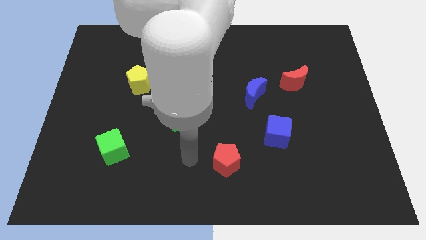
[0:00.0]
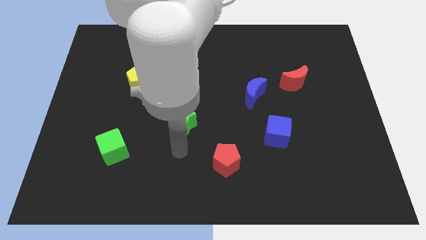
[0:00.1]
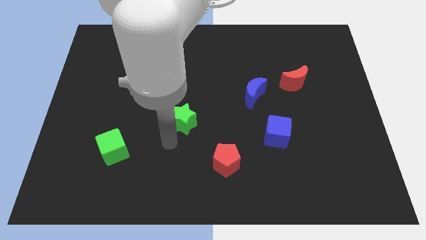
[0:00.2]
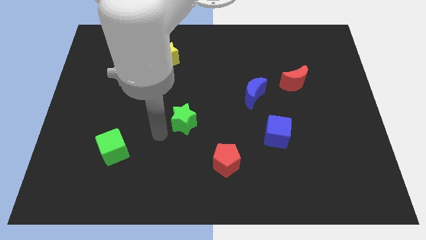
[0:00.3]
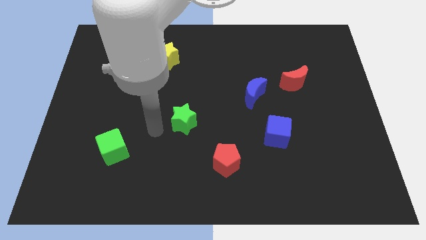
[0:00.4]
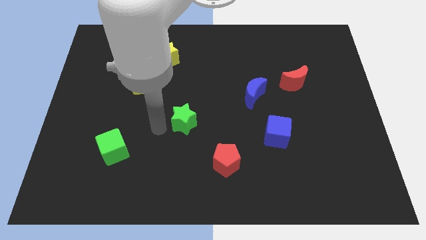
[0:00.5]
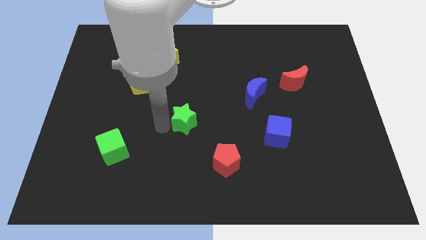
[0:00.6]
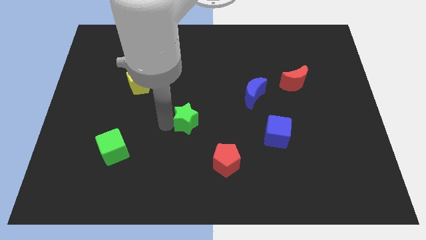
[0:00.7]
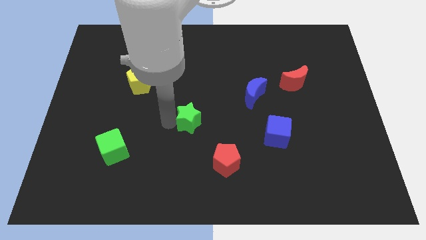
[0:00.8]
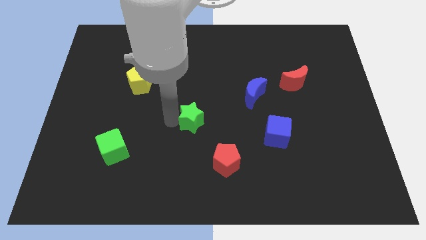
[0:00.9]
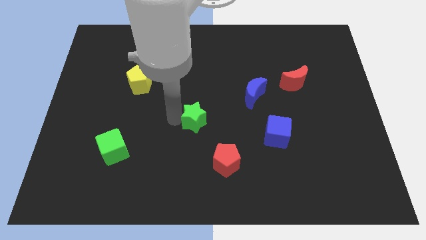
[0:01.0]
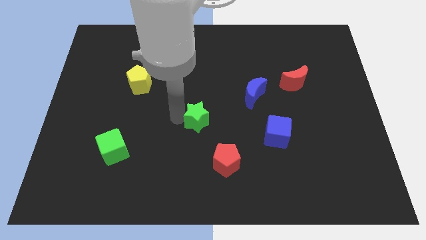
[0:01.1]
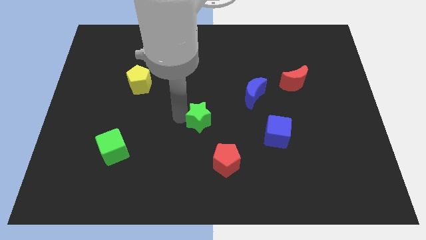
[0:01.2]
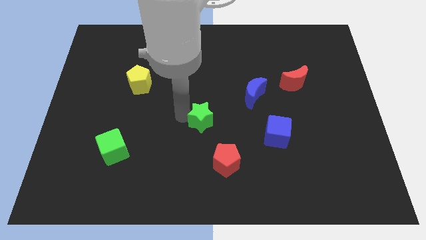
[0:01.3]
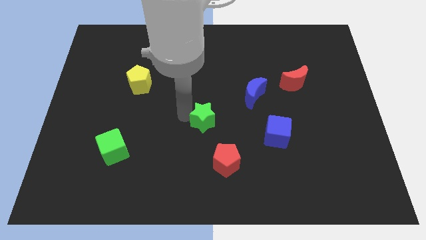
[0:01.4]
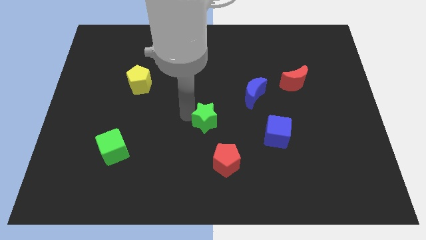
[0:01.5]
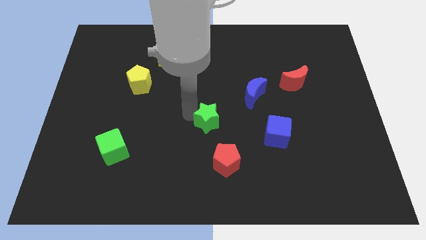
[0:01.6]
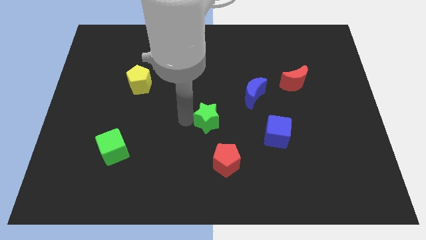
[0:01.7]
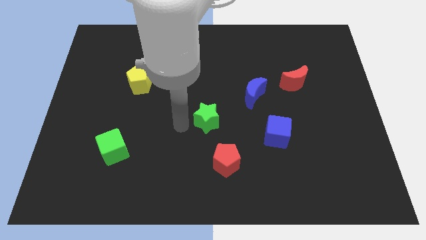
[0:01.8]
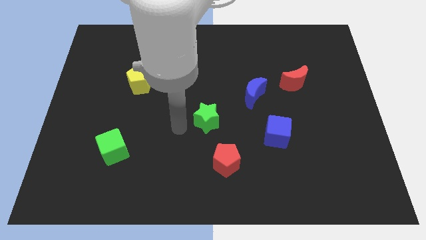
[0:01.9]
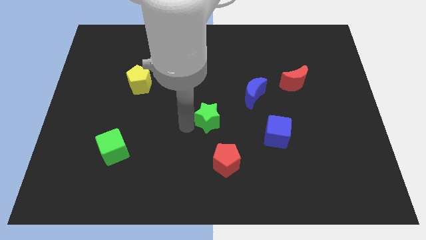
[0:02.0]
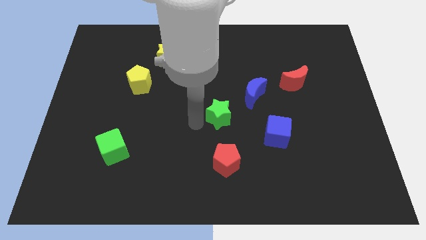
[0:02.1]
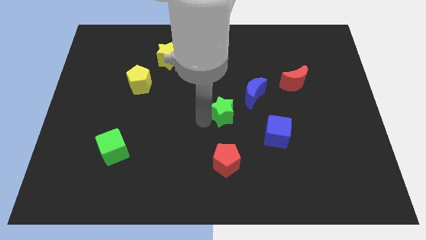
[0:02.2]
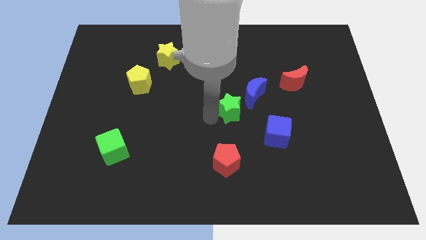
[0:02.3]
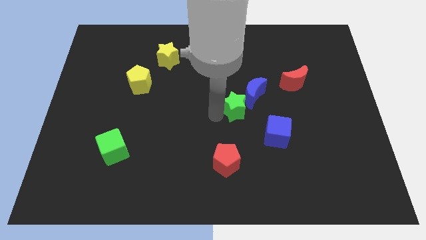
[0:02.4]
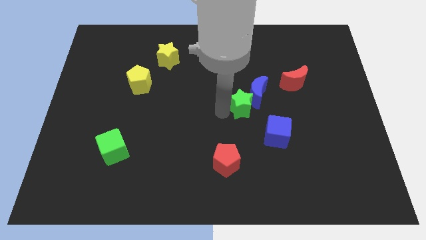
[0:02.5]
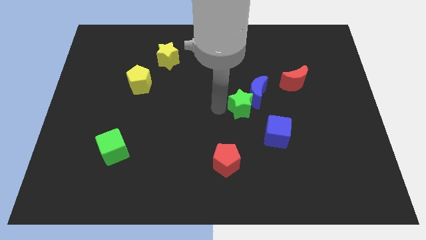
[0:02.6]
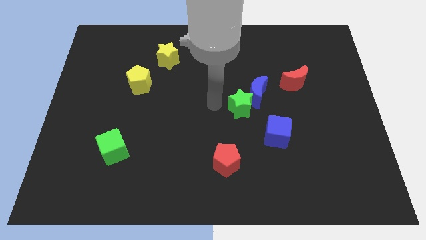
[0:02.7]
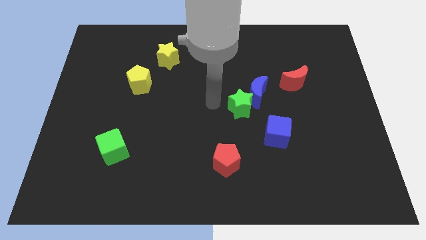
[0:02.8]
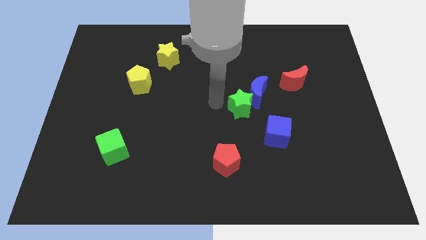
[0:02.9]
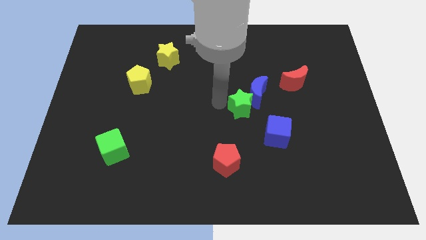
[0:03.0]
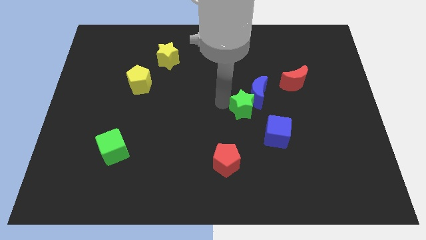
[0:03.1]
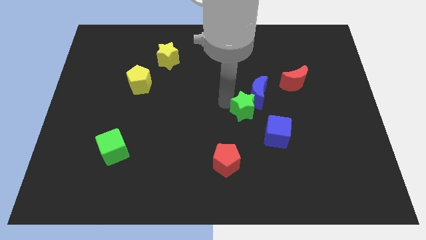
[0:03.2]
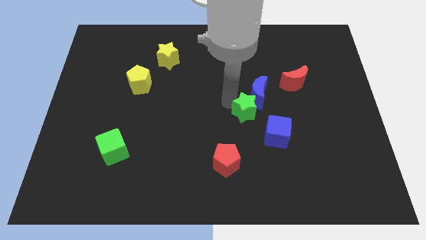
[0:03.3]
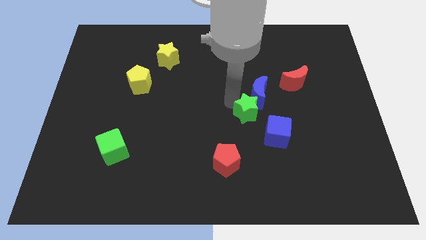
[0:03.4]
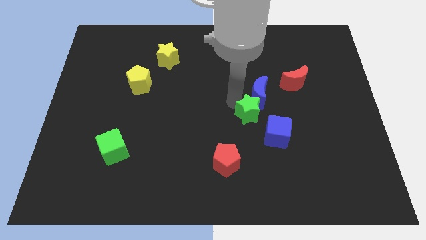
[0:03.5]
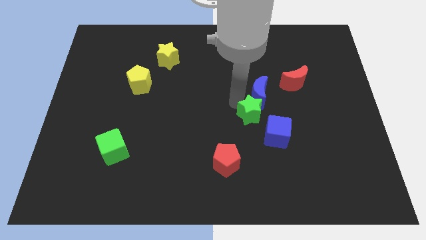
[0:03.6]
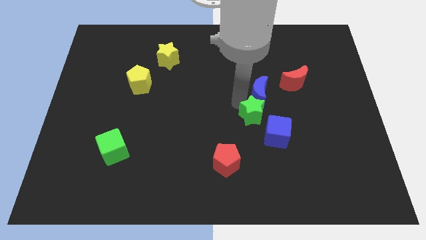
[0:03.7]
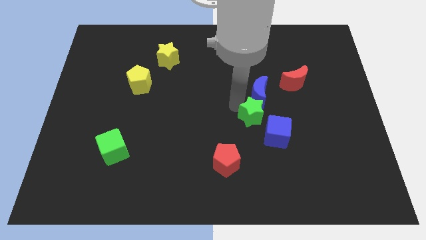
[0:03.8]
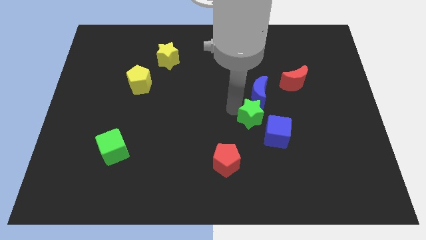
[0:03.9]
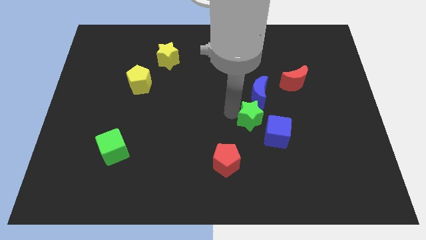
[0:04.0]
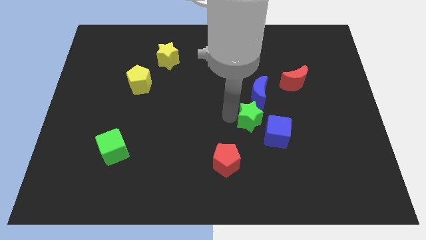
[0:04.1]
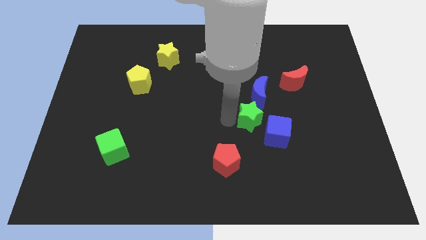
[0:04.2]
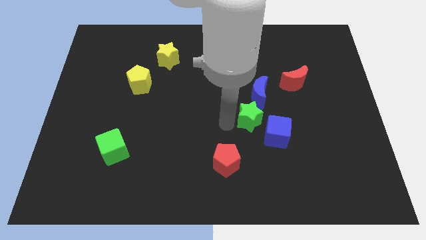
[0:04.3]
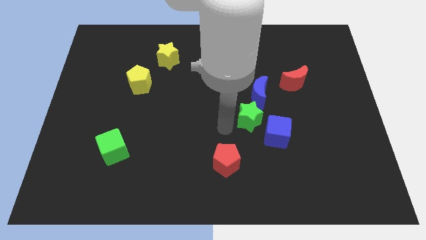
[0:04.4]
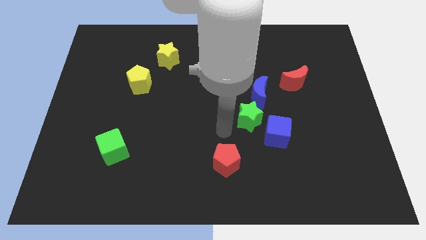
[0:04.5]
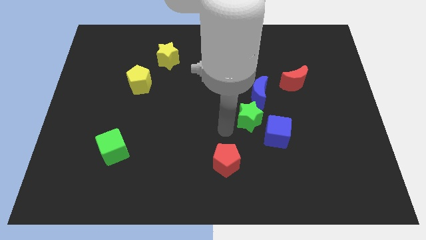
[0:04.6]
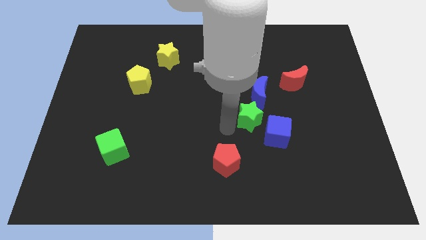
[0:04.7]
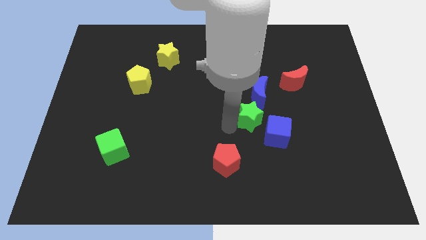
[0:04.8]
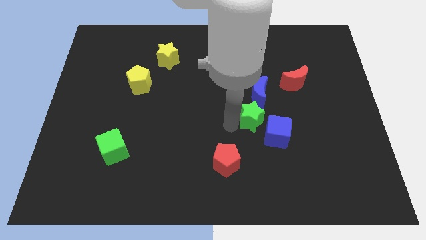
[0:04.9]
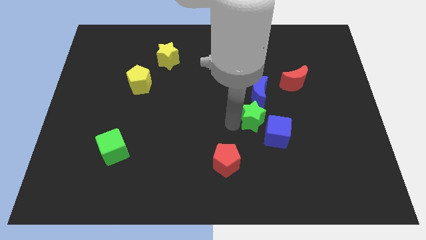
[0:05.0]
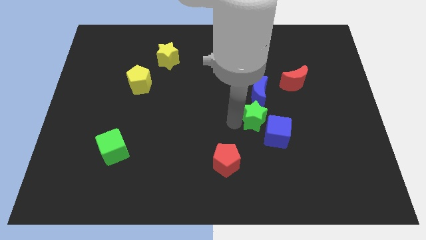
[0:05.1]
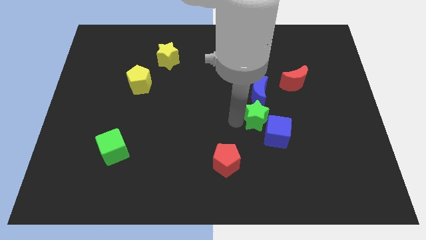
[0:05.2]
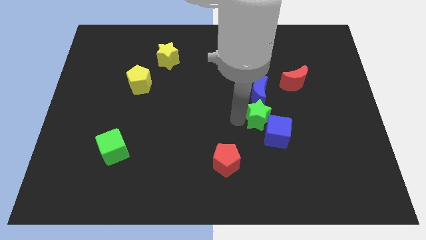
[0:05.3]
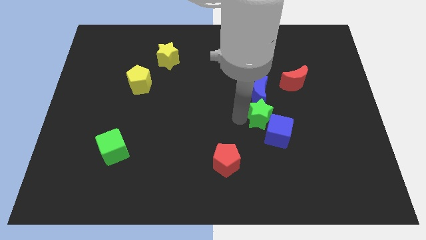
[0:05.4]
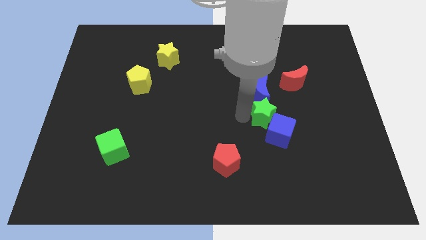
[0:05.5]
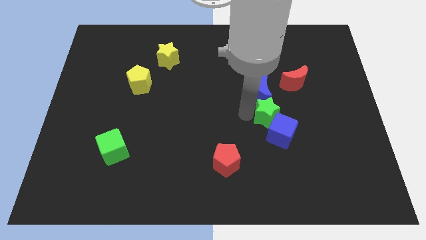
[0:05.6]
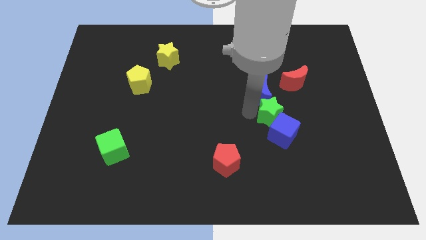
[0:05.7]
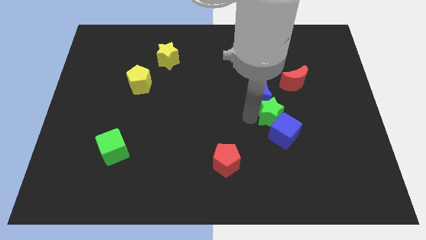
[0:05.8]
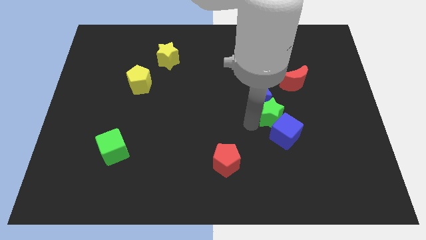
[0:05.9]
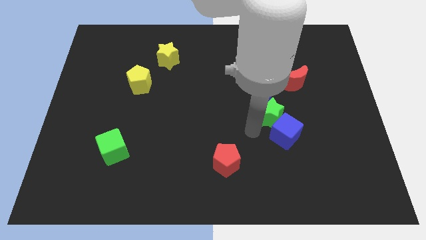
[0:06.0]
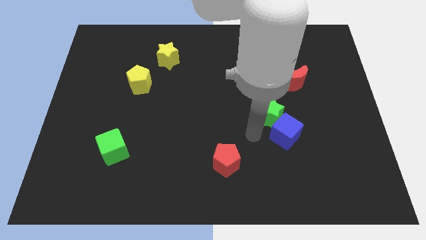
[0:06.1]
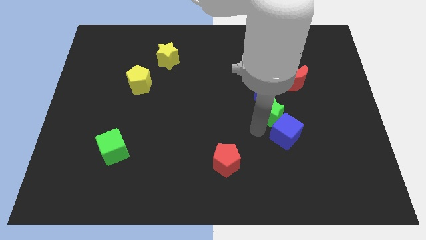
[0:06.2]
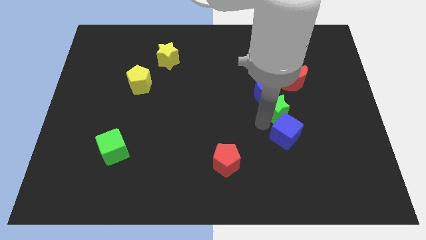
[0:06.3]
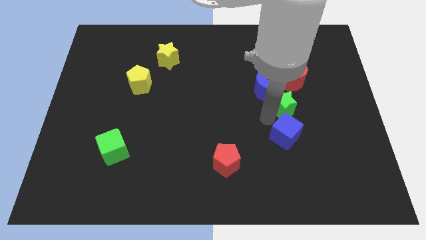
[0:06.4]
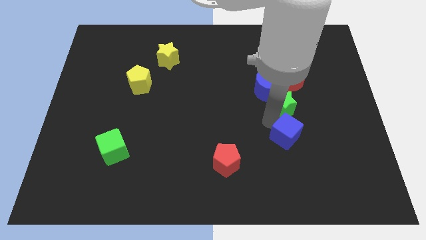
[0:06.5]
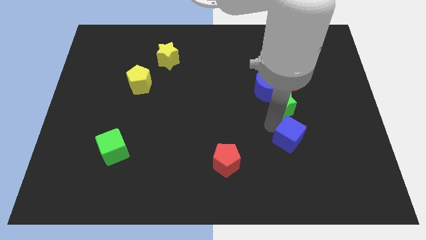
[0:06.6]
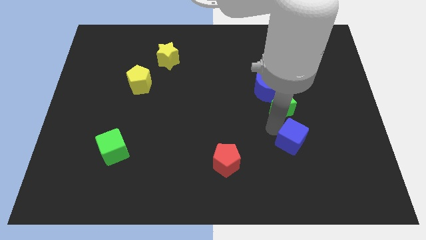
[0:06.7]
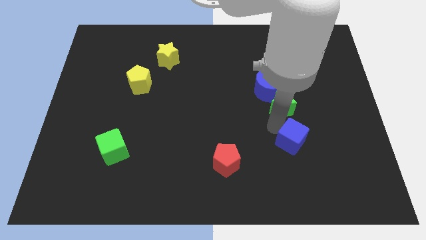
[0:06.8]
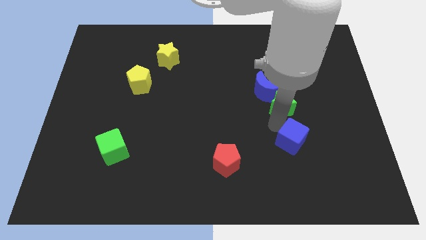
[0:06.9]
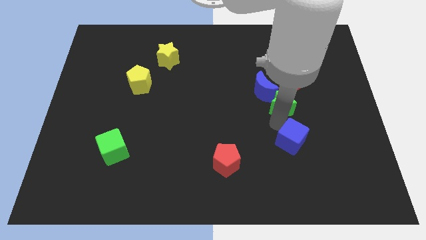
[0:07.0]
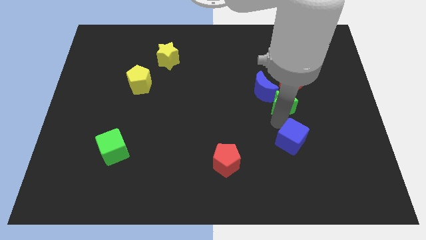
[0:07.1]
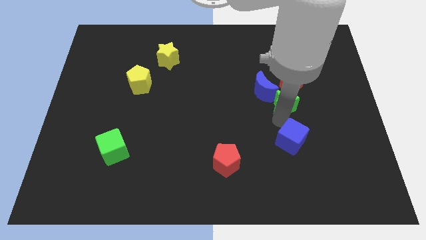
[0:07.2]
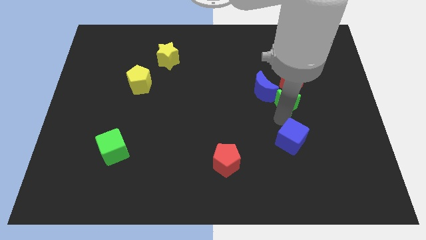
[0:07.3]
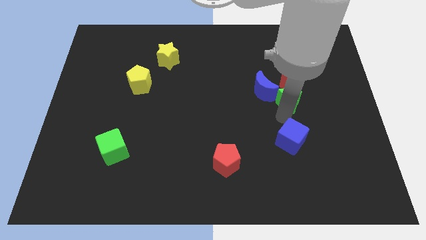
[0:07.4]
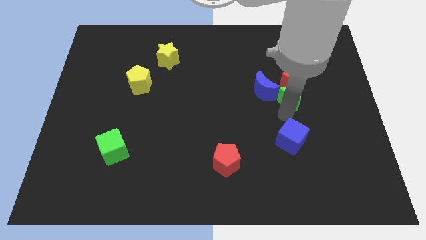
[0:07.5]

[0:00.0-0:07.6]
put the green star next to the red moon

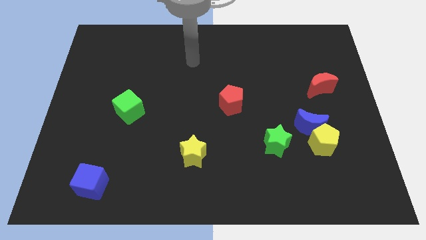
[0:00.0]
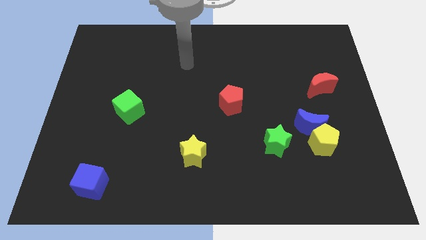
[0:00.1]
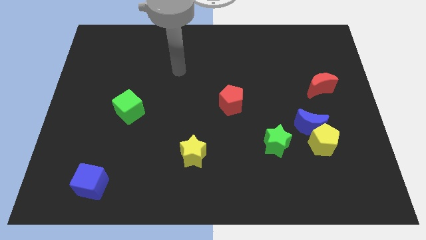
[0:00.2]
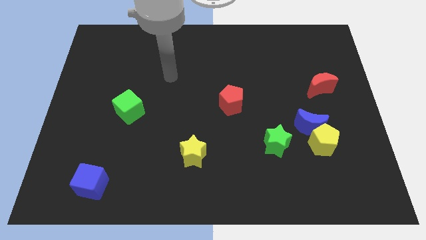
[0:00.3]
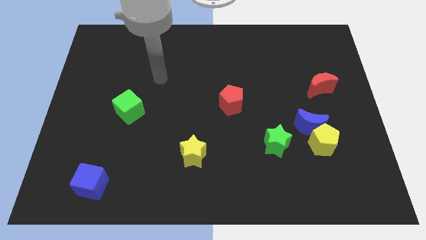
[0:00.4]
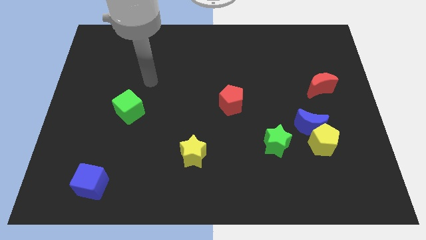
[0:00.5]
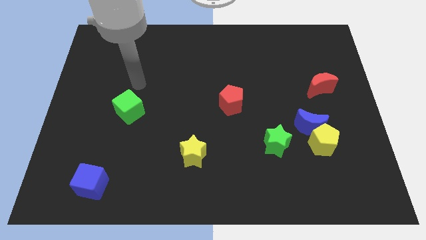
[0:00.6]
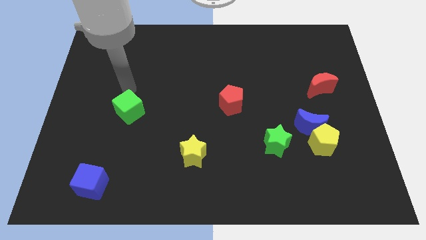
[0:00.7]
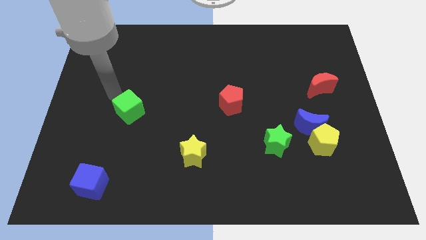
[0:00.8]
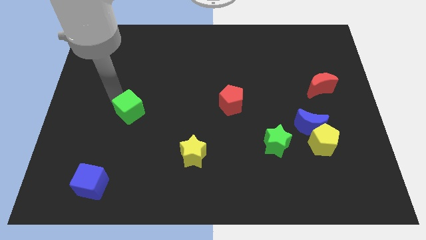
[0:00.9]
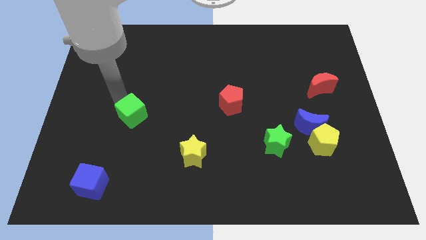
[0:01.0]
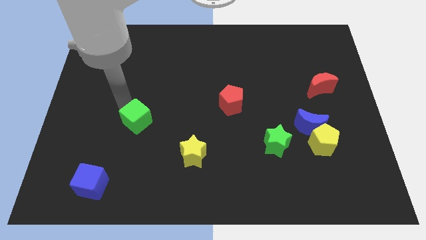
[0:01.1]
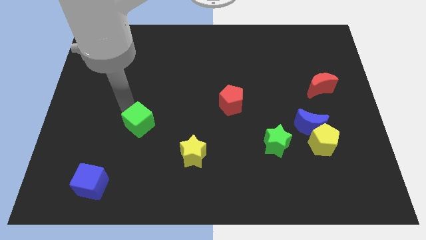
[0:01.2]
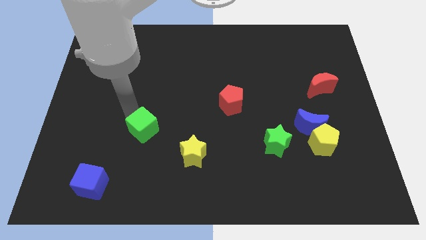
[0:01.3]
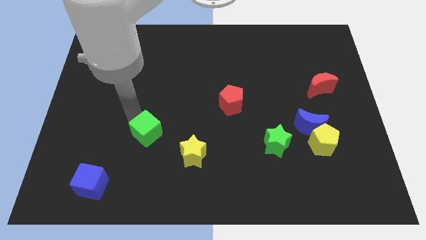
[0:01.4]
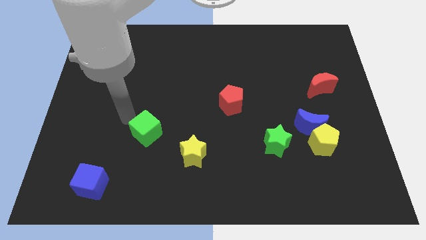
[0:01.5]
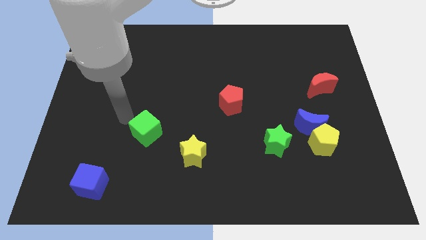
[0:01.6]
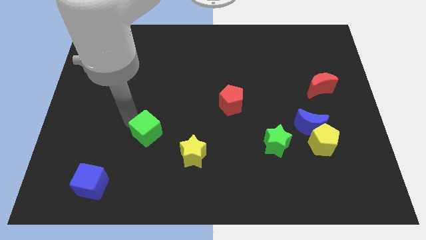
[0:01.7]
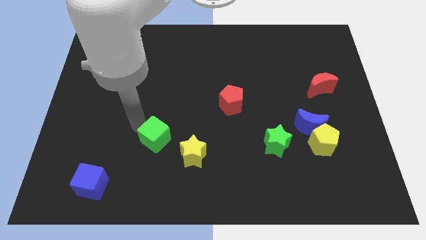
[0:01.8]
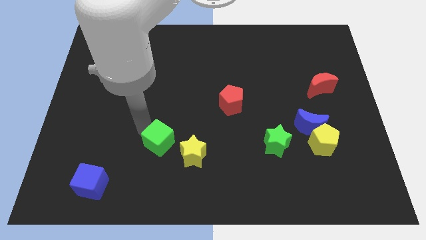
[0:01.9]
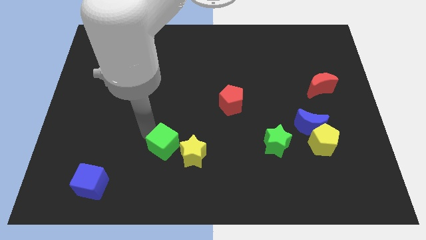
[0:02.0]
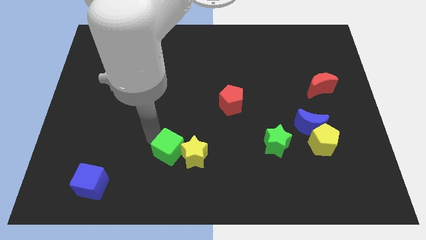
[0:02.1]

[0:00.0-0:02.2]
slide the green cube close to the yellow star
